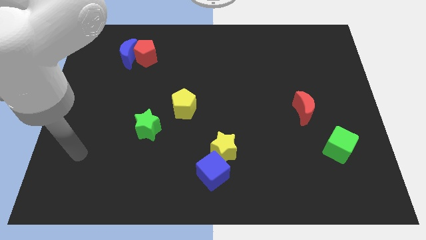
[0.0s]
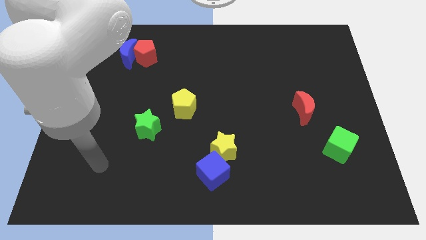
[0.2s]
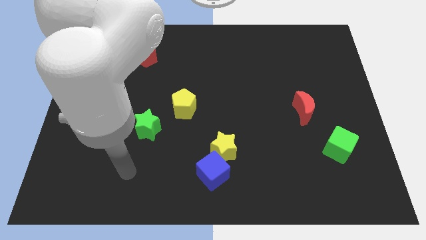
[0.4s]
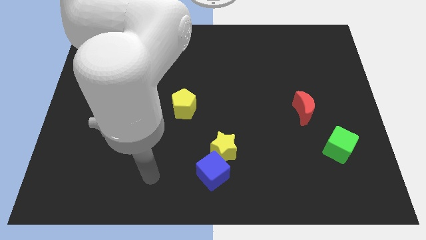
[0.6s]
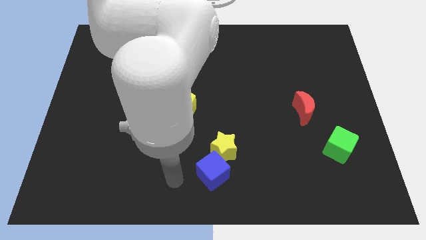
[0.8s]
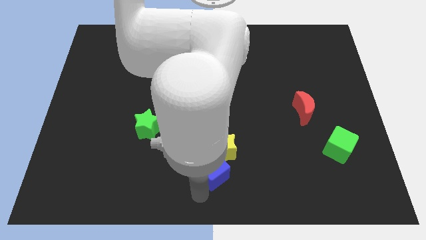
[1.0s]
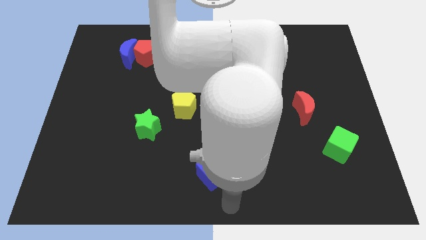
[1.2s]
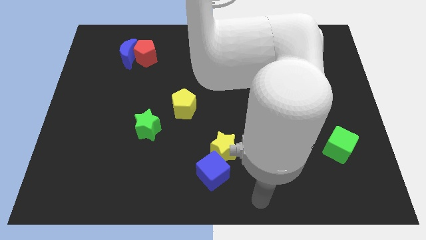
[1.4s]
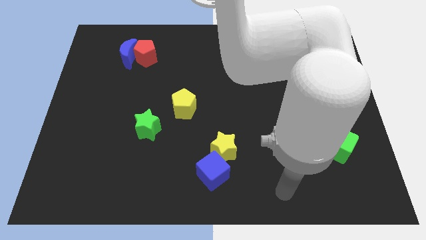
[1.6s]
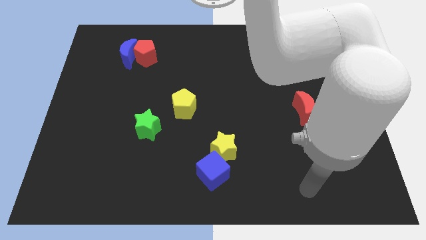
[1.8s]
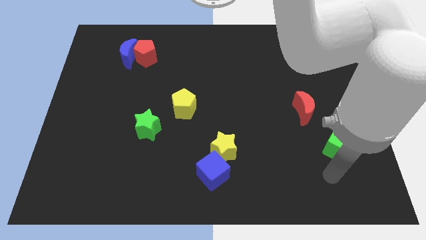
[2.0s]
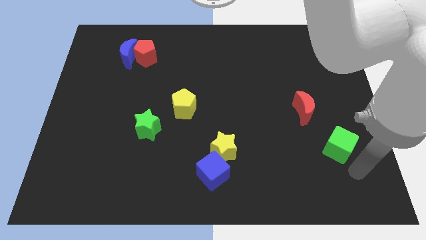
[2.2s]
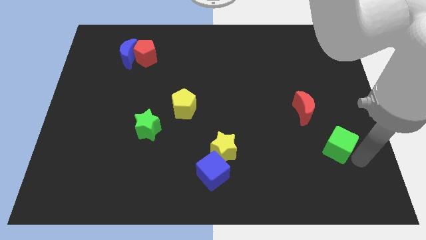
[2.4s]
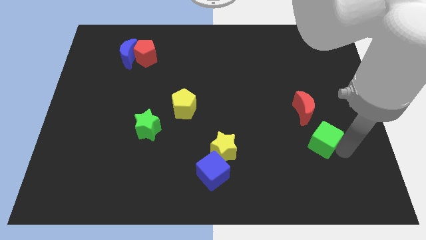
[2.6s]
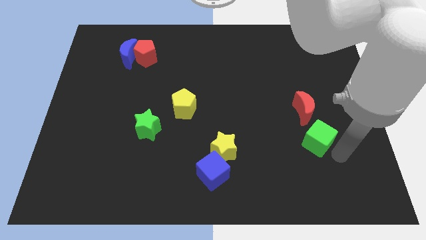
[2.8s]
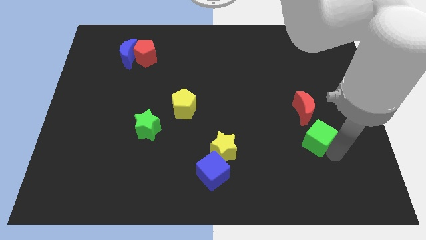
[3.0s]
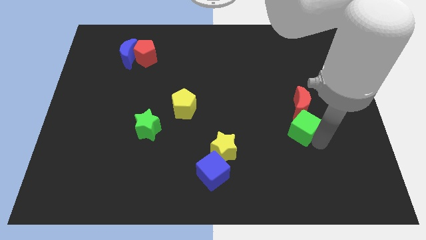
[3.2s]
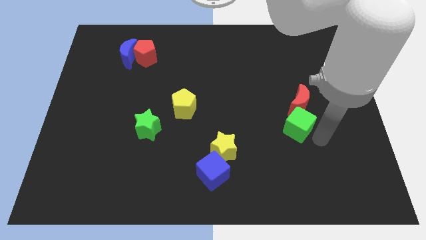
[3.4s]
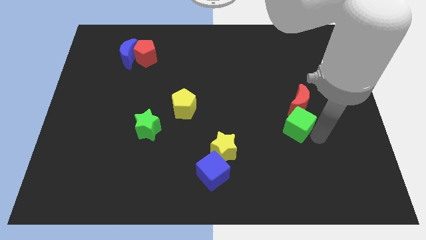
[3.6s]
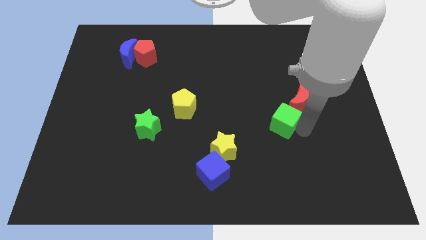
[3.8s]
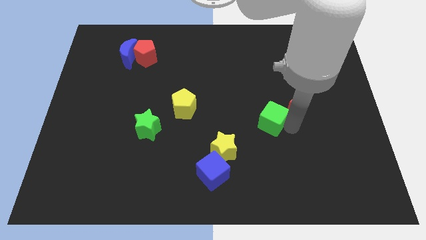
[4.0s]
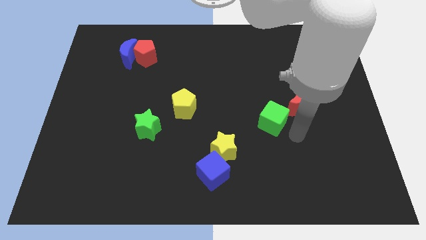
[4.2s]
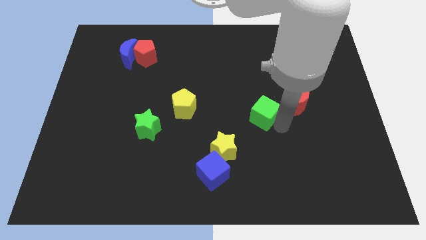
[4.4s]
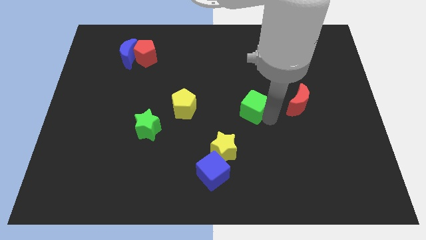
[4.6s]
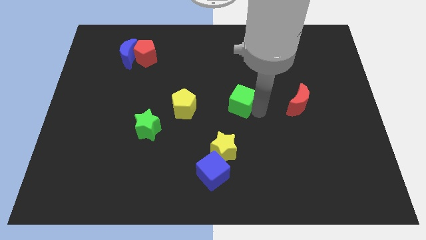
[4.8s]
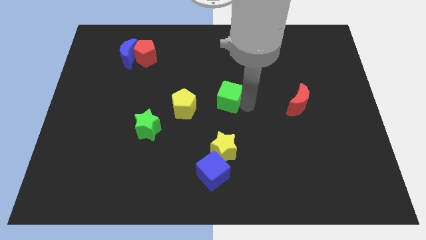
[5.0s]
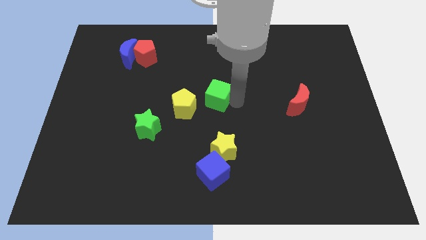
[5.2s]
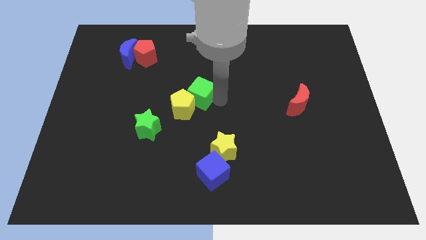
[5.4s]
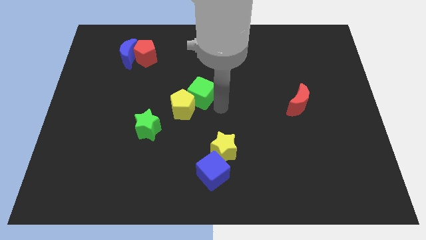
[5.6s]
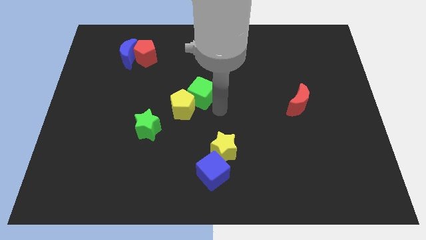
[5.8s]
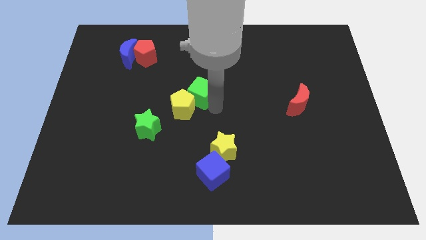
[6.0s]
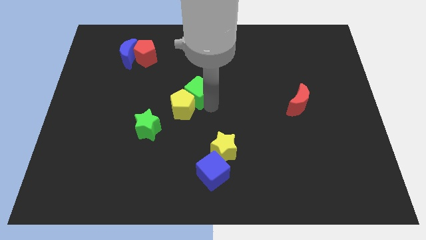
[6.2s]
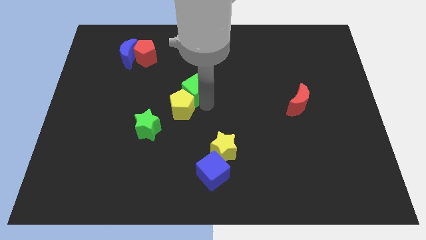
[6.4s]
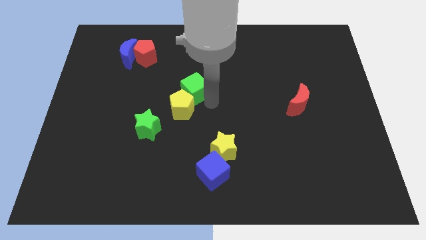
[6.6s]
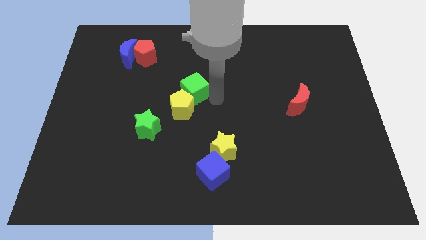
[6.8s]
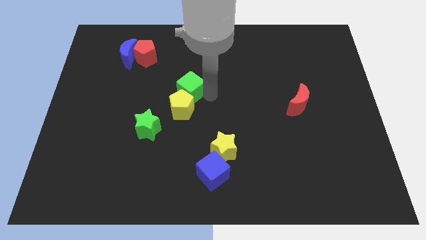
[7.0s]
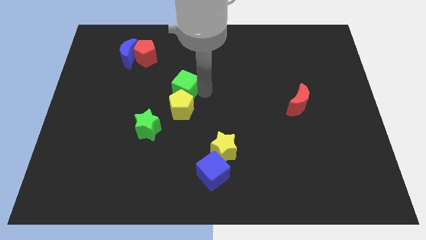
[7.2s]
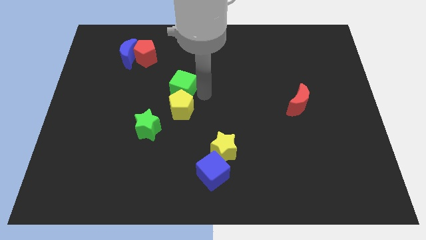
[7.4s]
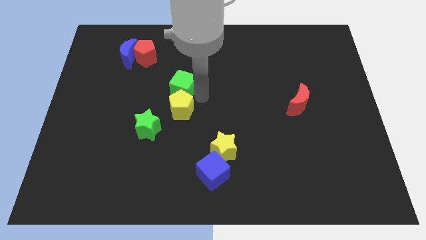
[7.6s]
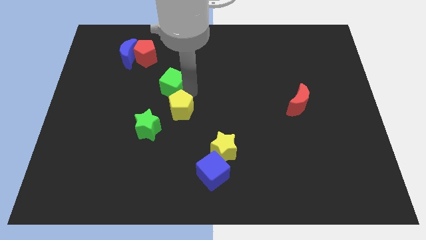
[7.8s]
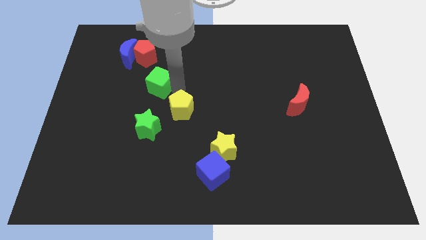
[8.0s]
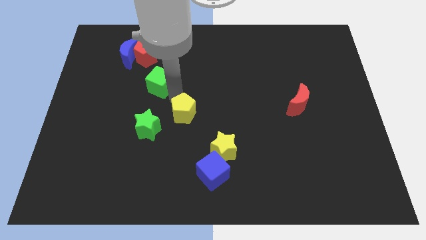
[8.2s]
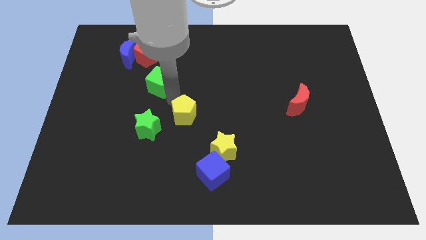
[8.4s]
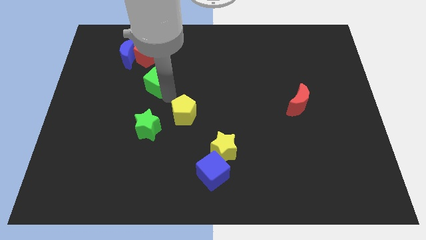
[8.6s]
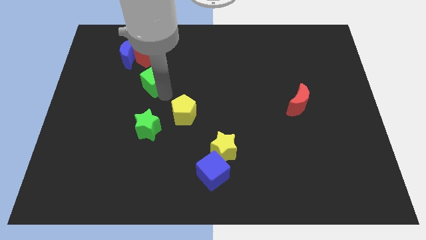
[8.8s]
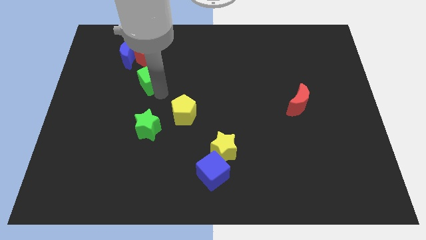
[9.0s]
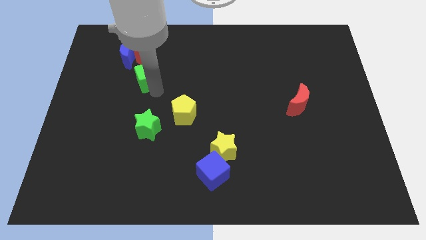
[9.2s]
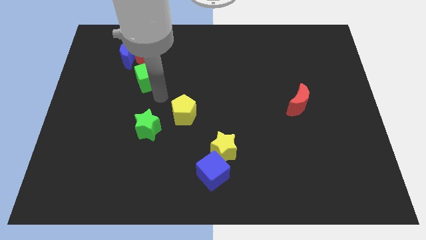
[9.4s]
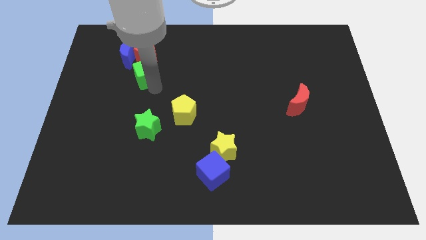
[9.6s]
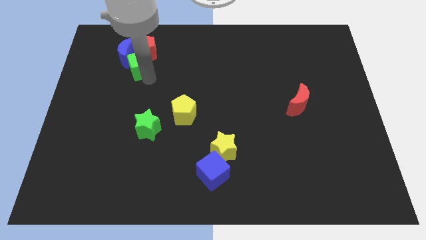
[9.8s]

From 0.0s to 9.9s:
push the green cube to the blue moon

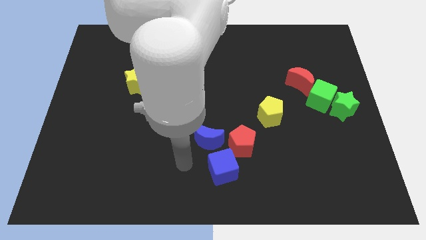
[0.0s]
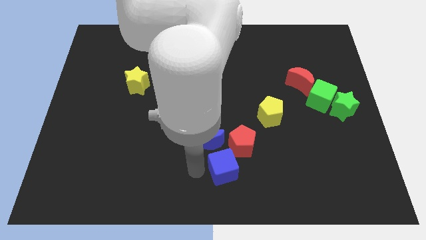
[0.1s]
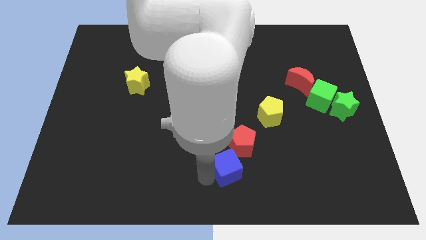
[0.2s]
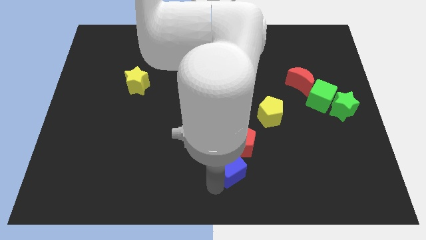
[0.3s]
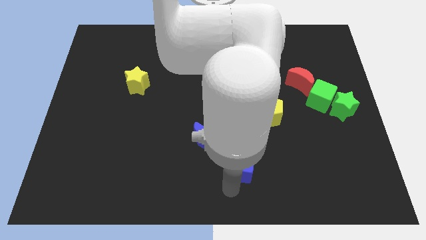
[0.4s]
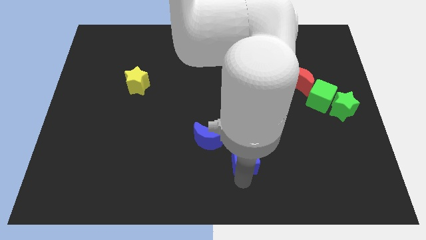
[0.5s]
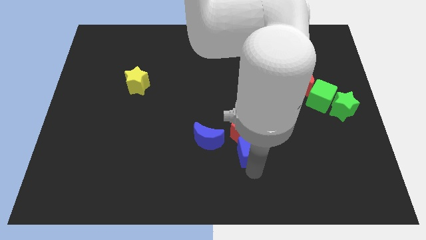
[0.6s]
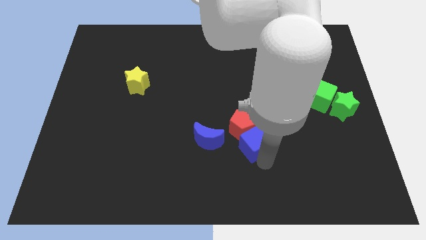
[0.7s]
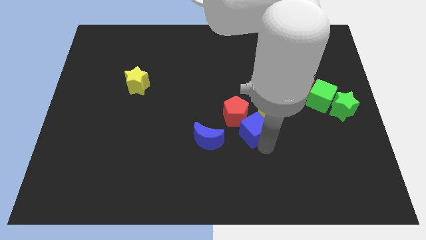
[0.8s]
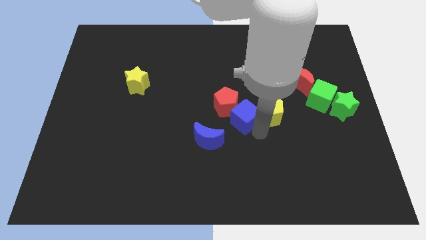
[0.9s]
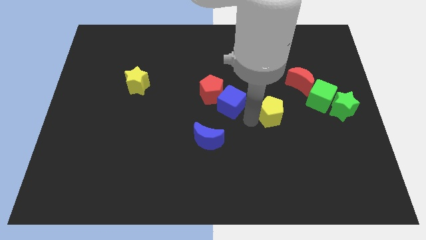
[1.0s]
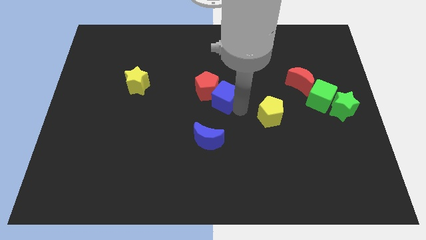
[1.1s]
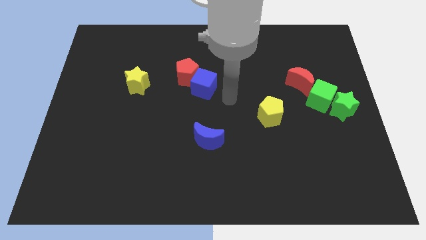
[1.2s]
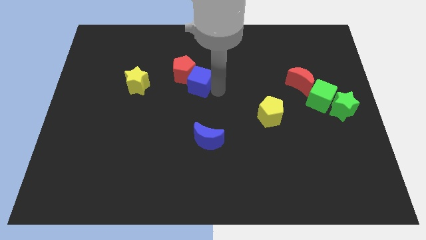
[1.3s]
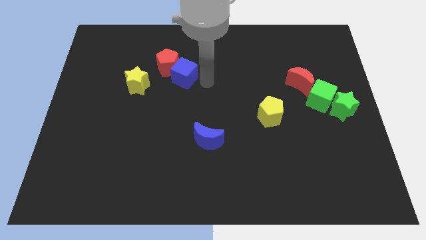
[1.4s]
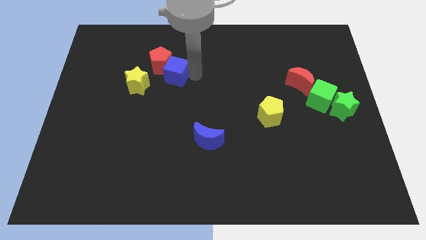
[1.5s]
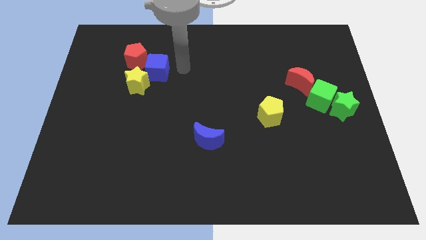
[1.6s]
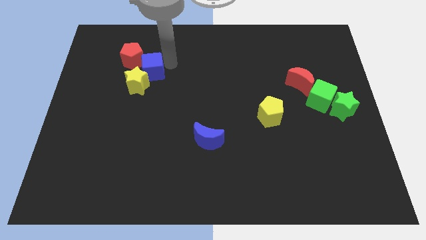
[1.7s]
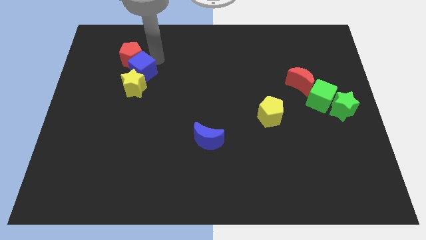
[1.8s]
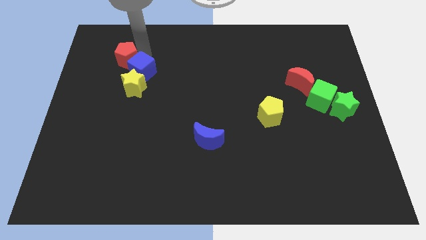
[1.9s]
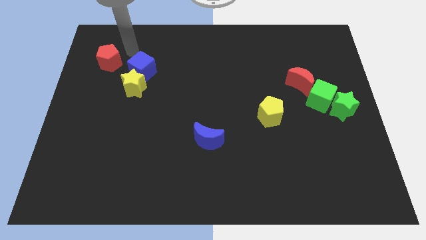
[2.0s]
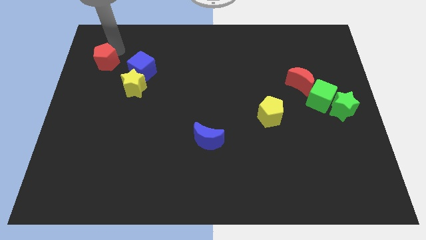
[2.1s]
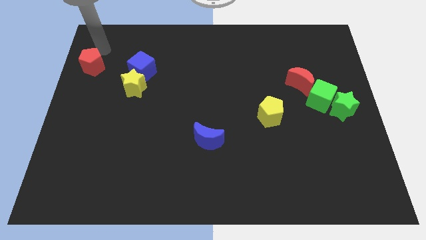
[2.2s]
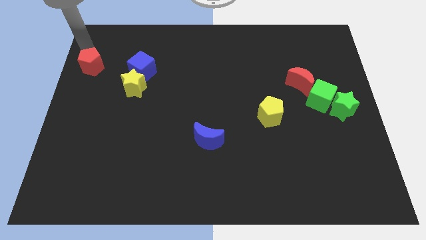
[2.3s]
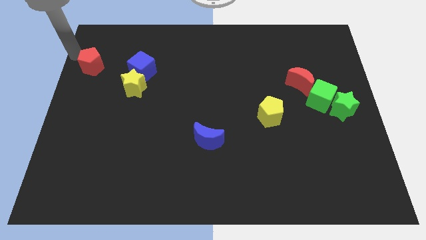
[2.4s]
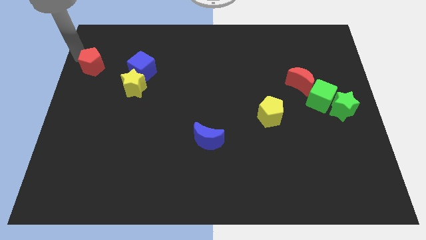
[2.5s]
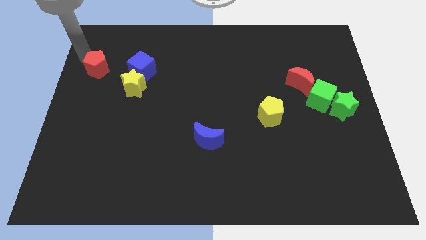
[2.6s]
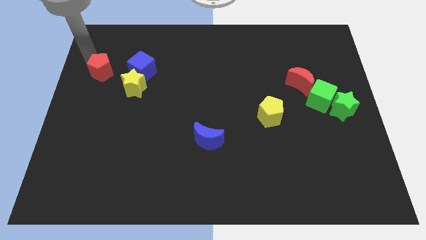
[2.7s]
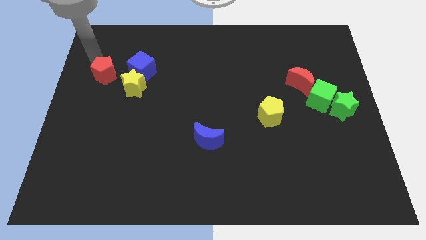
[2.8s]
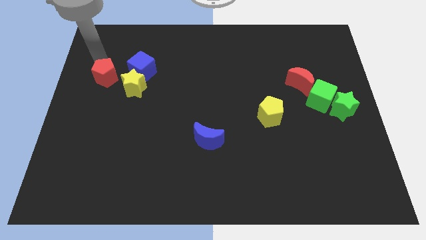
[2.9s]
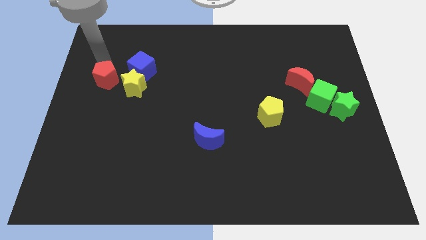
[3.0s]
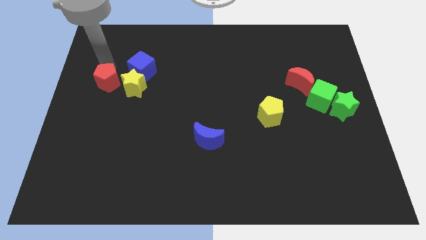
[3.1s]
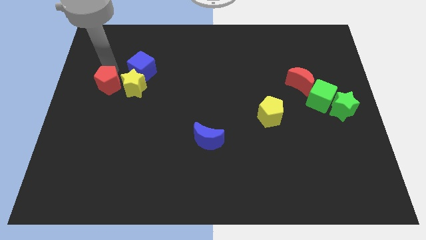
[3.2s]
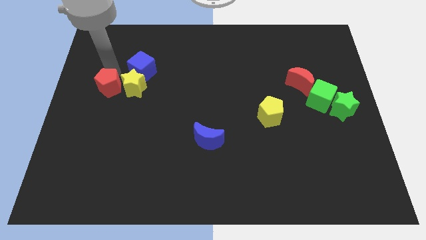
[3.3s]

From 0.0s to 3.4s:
push the red pentagon towards the yellow star
